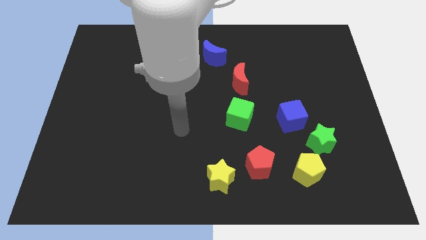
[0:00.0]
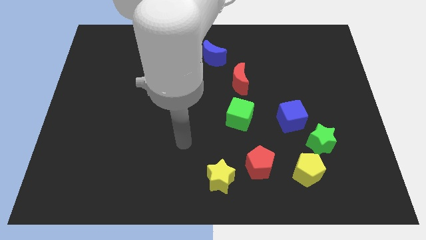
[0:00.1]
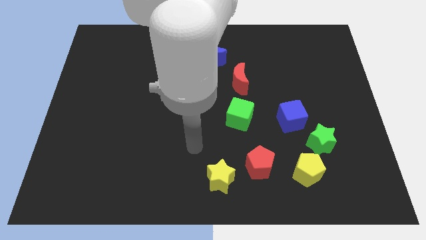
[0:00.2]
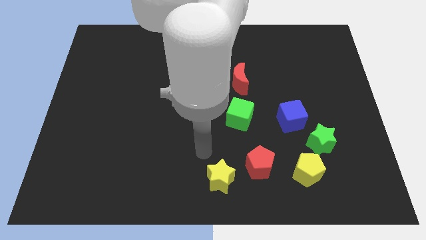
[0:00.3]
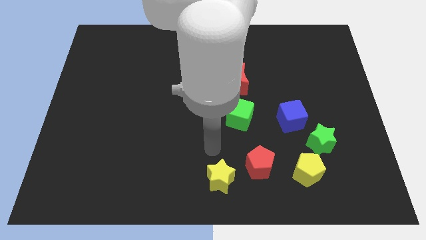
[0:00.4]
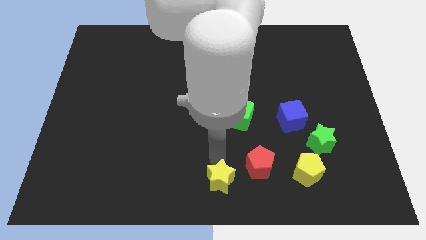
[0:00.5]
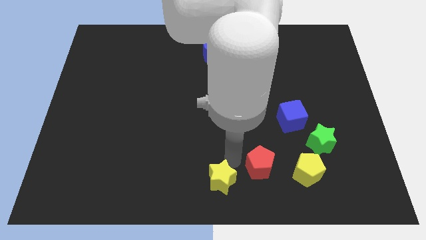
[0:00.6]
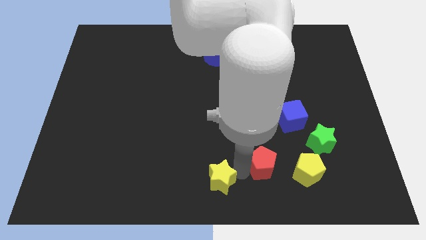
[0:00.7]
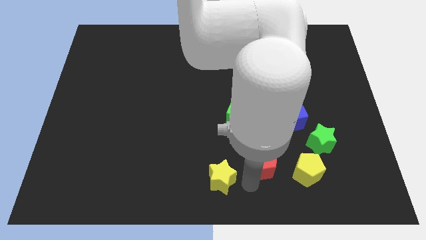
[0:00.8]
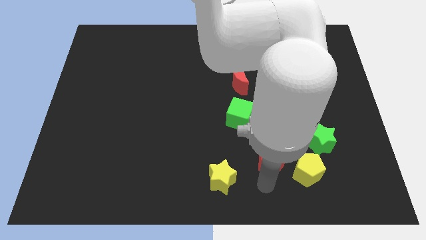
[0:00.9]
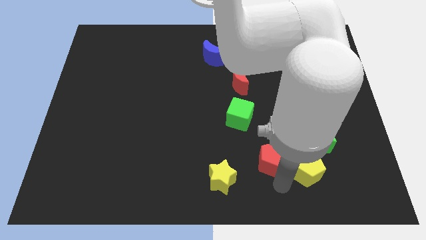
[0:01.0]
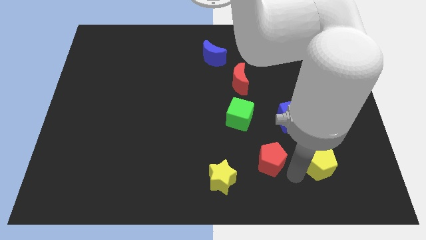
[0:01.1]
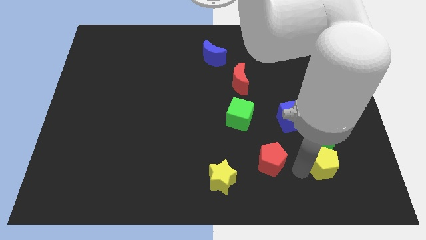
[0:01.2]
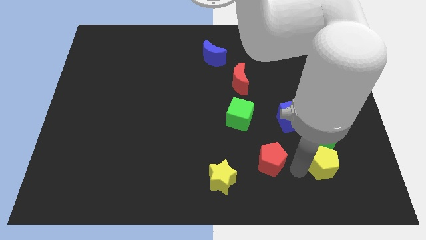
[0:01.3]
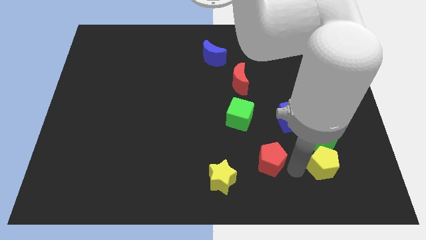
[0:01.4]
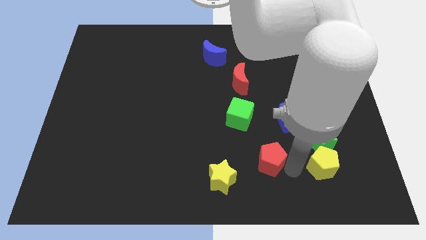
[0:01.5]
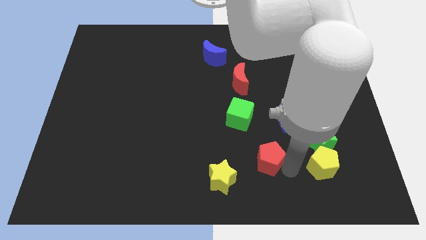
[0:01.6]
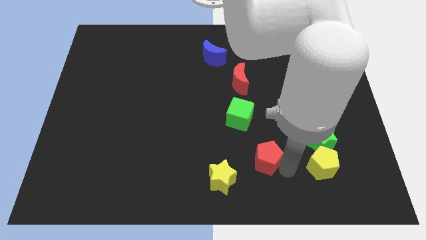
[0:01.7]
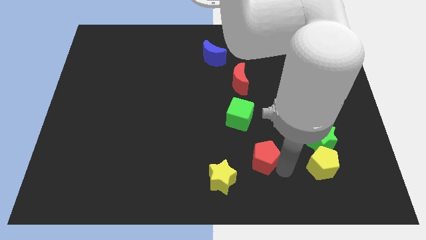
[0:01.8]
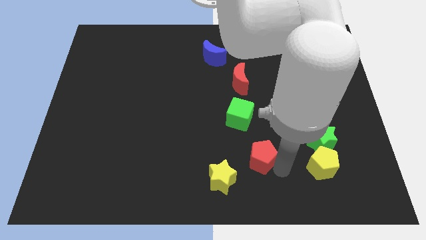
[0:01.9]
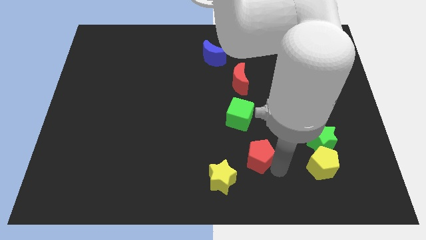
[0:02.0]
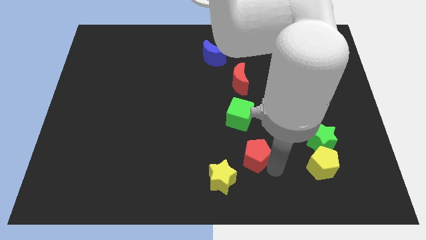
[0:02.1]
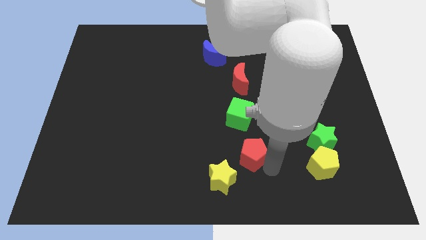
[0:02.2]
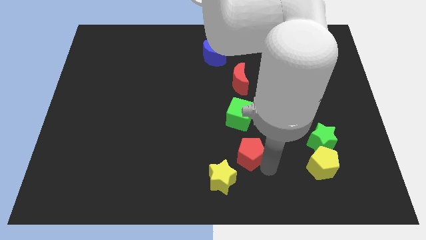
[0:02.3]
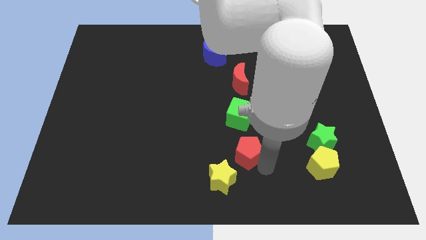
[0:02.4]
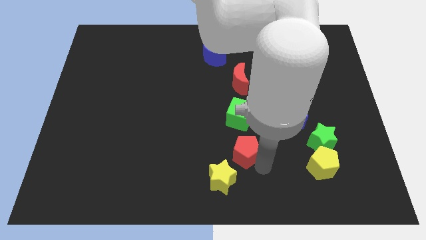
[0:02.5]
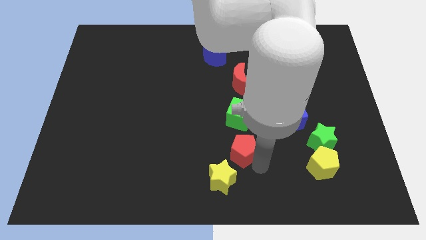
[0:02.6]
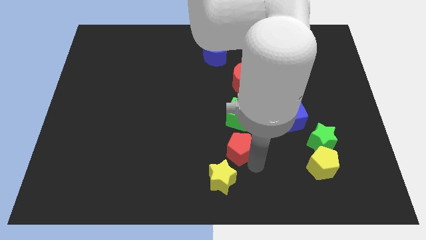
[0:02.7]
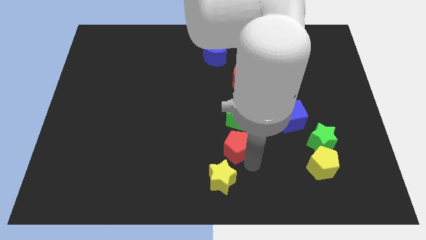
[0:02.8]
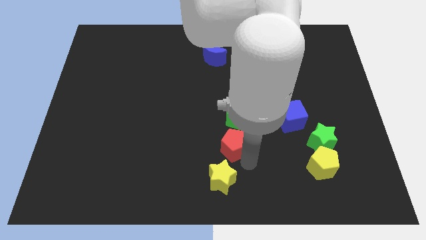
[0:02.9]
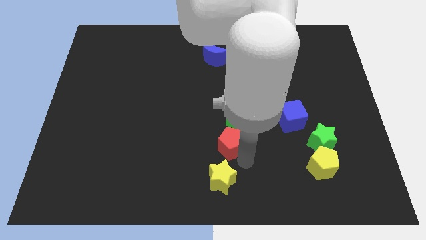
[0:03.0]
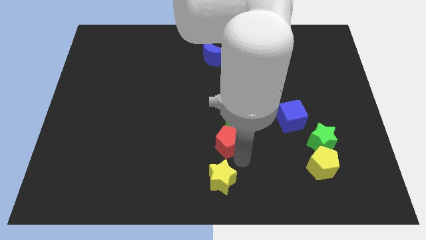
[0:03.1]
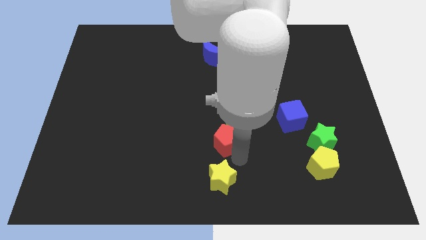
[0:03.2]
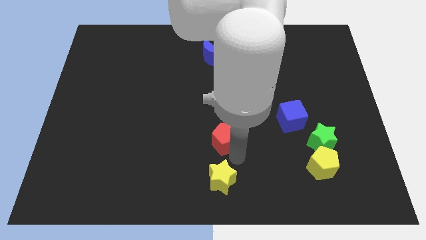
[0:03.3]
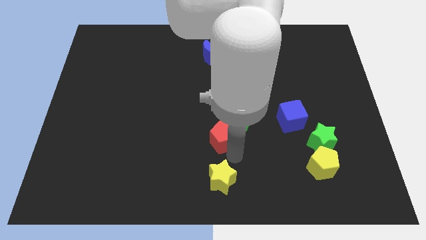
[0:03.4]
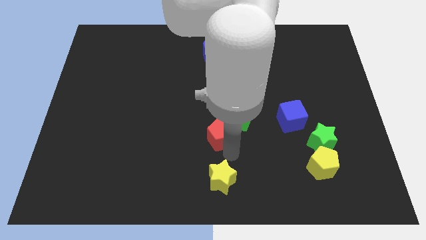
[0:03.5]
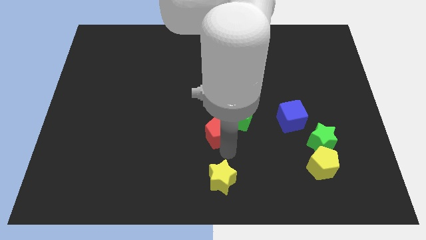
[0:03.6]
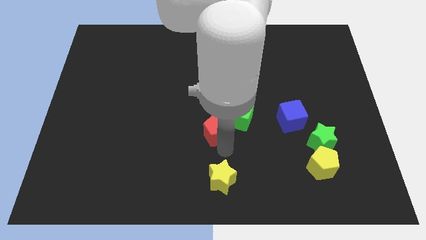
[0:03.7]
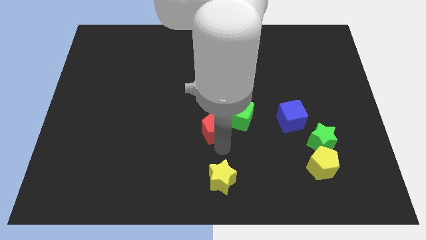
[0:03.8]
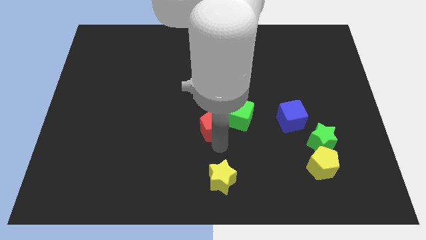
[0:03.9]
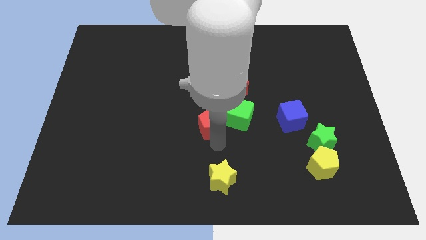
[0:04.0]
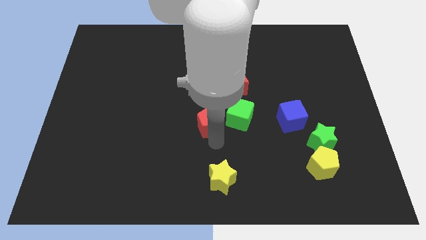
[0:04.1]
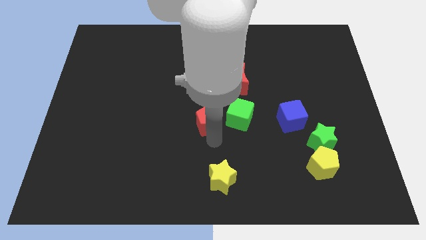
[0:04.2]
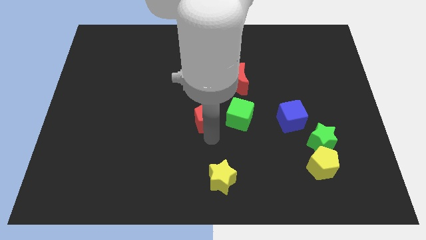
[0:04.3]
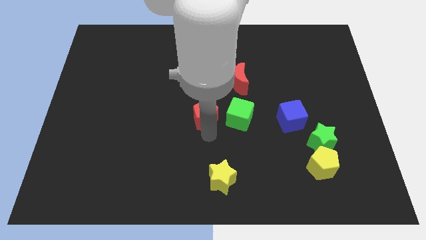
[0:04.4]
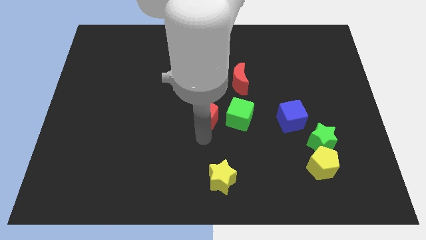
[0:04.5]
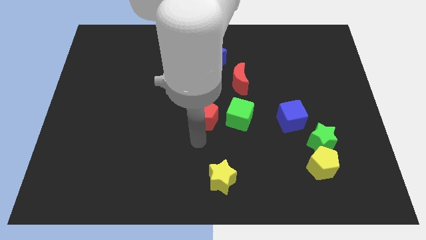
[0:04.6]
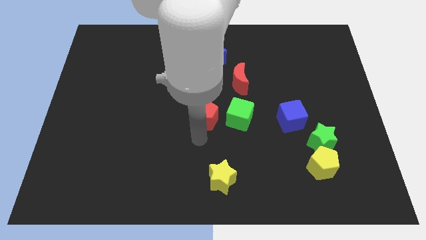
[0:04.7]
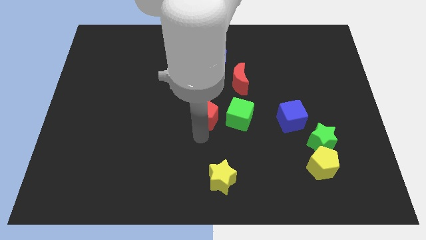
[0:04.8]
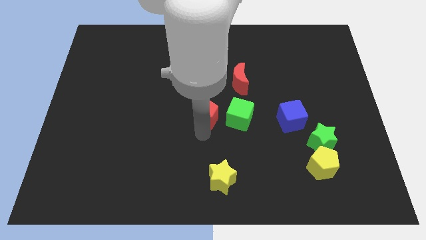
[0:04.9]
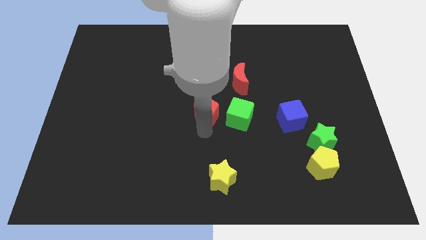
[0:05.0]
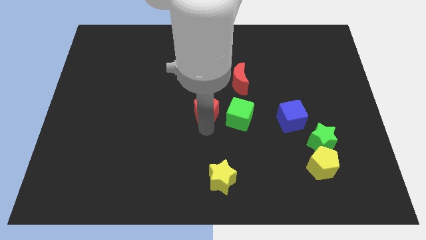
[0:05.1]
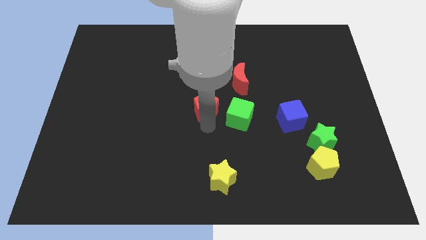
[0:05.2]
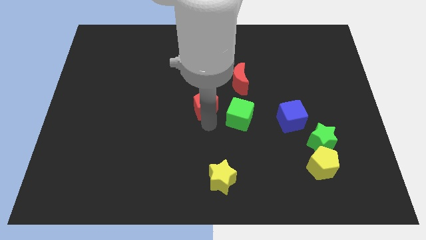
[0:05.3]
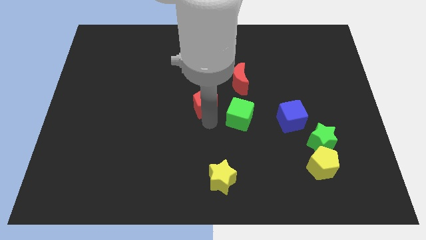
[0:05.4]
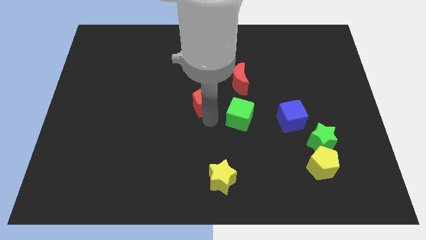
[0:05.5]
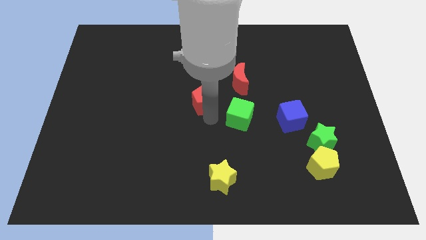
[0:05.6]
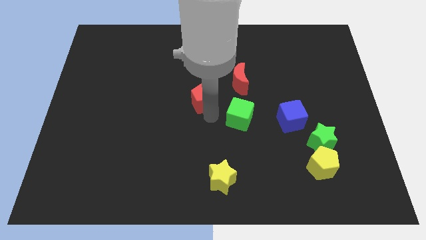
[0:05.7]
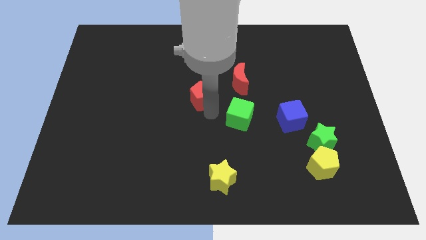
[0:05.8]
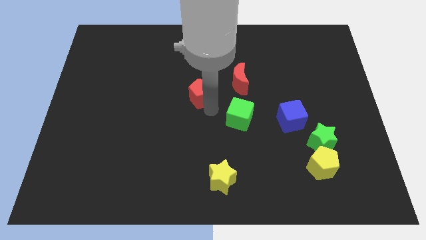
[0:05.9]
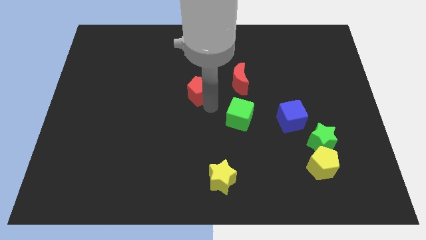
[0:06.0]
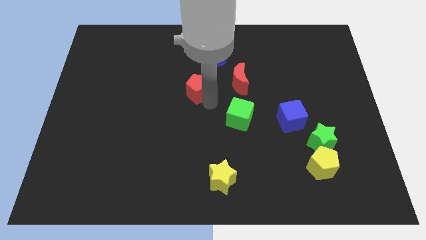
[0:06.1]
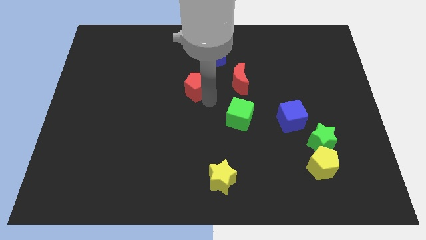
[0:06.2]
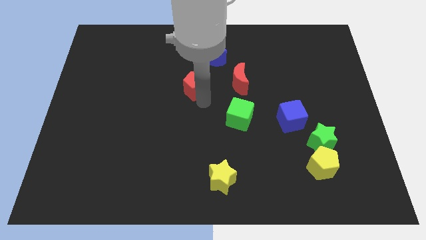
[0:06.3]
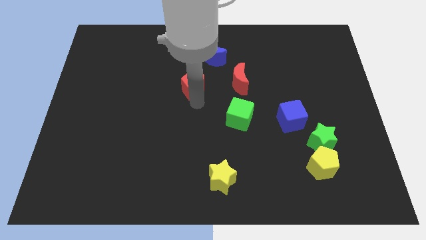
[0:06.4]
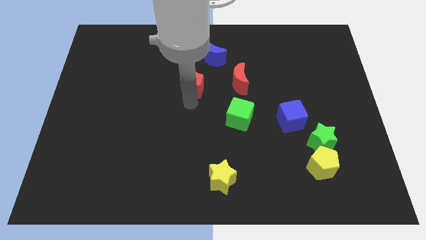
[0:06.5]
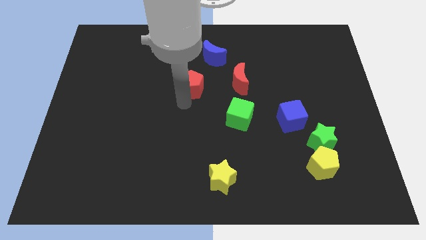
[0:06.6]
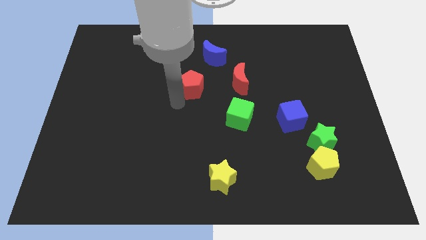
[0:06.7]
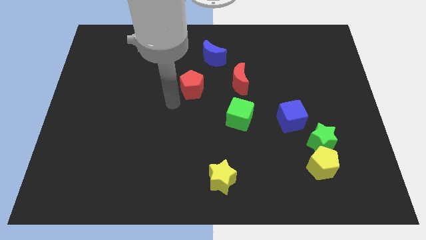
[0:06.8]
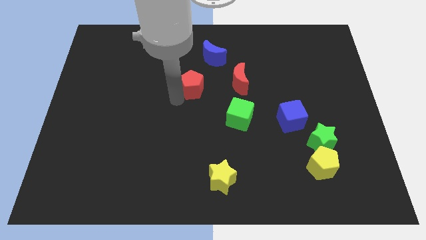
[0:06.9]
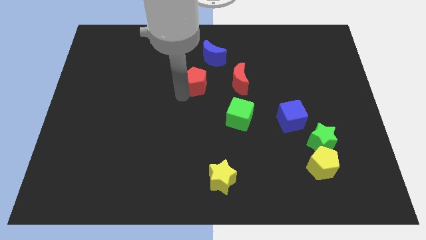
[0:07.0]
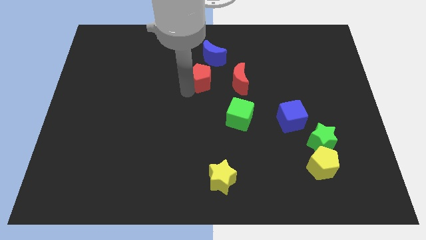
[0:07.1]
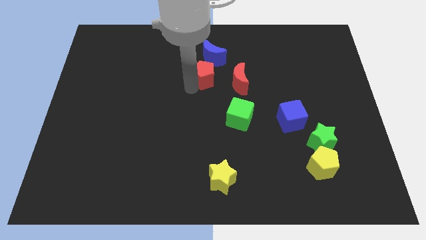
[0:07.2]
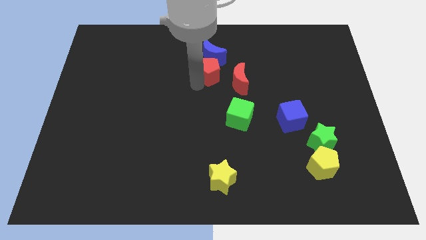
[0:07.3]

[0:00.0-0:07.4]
push the red pentagon next to the blue moon

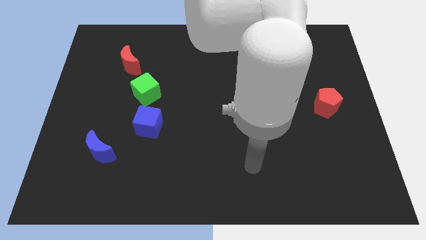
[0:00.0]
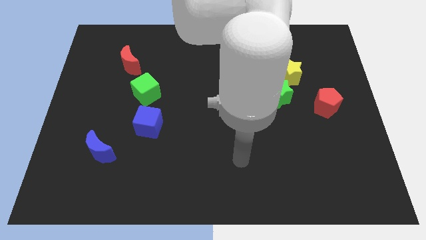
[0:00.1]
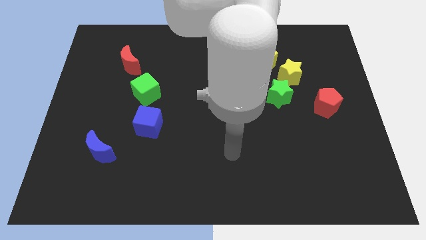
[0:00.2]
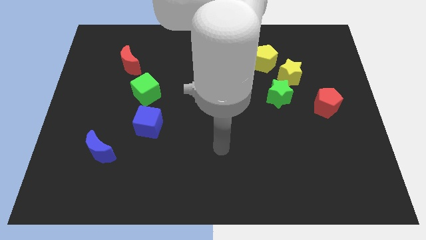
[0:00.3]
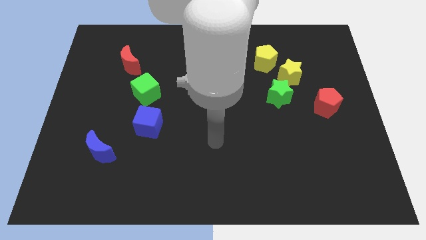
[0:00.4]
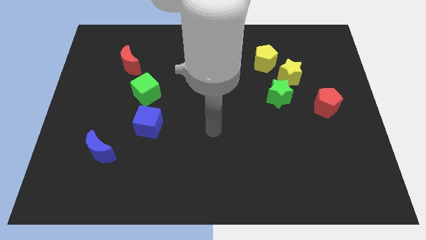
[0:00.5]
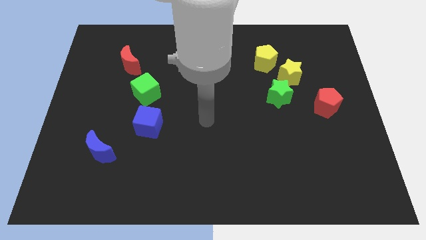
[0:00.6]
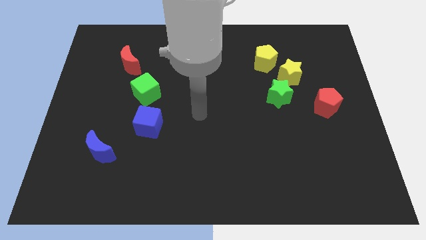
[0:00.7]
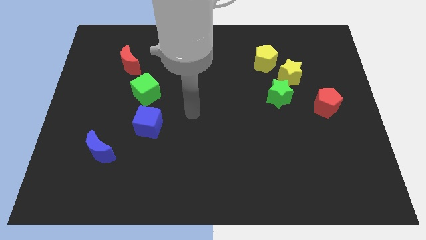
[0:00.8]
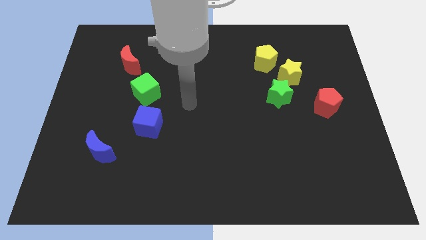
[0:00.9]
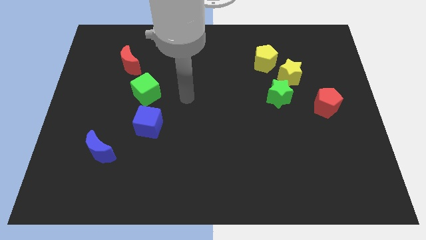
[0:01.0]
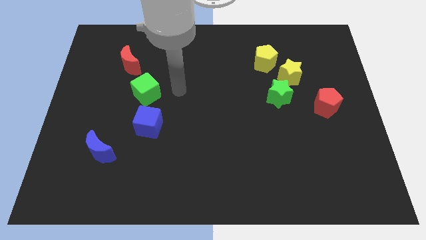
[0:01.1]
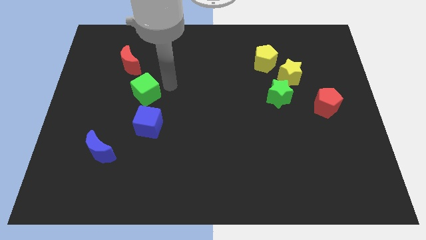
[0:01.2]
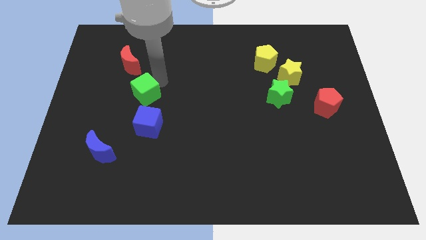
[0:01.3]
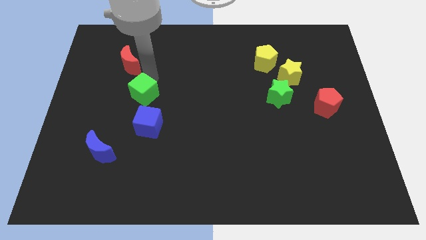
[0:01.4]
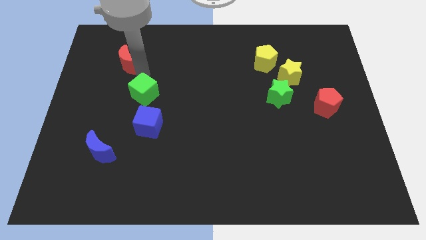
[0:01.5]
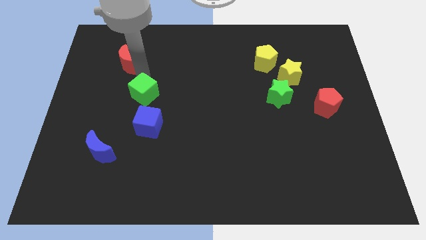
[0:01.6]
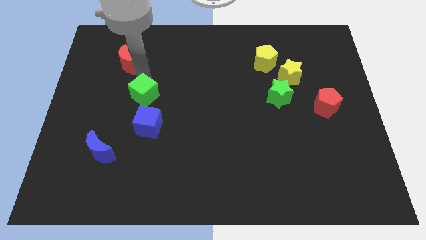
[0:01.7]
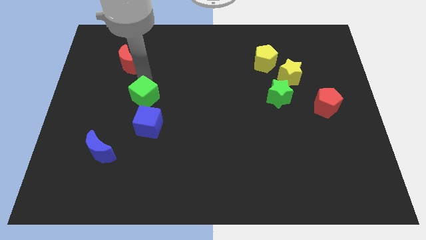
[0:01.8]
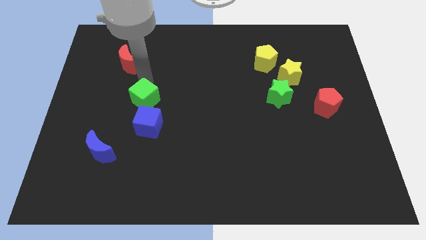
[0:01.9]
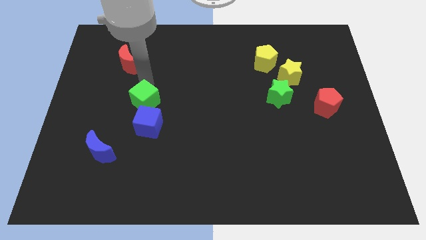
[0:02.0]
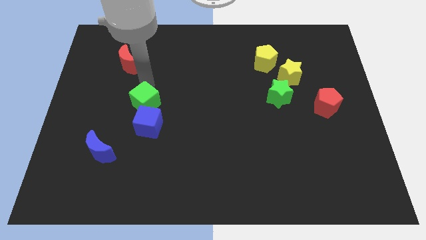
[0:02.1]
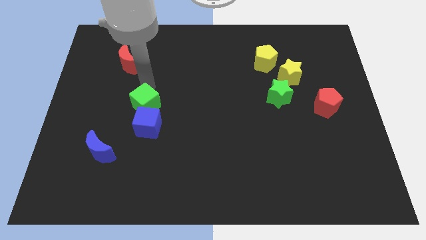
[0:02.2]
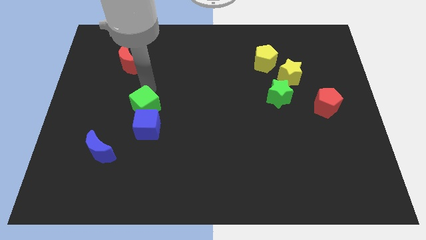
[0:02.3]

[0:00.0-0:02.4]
push the green cube towards the blue cube
